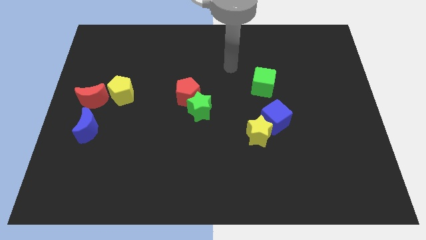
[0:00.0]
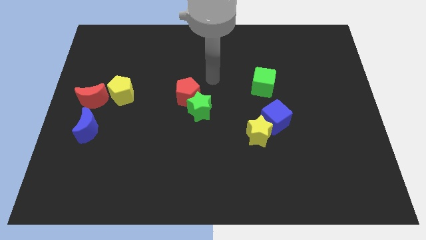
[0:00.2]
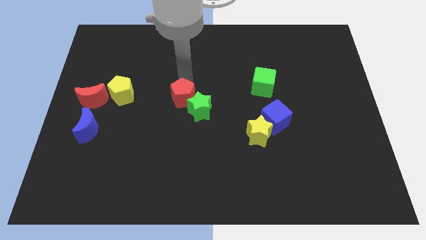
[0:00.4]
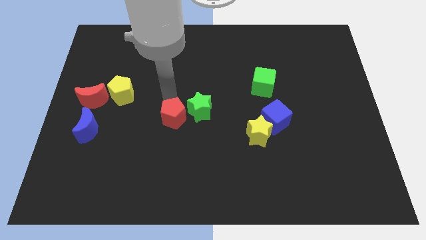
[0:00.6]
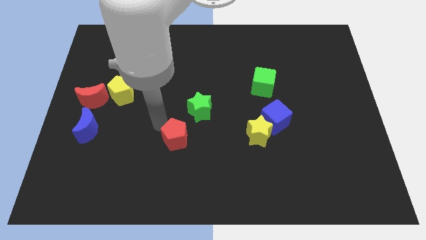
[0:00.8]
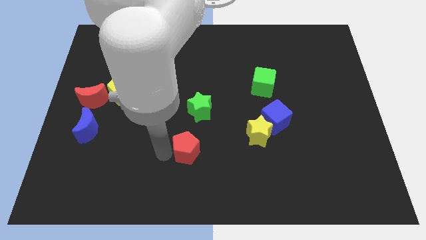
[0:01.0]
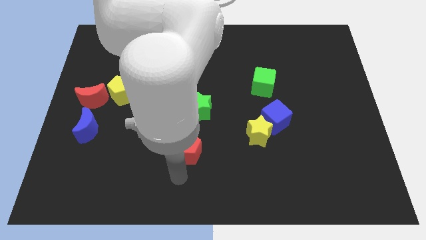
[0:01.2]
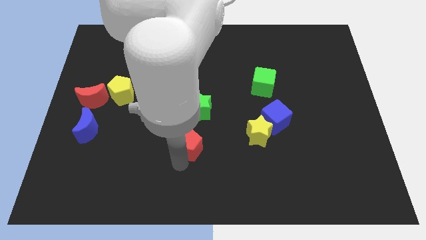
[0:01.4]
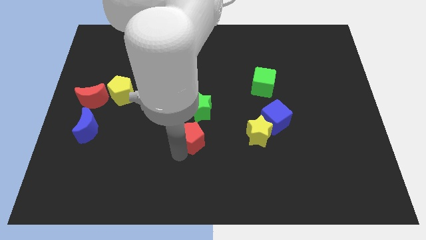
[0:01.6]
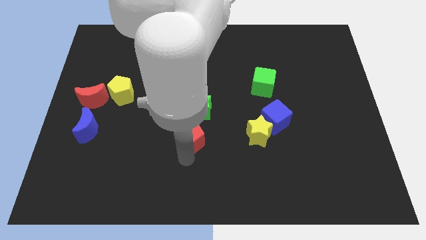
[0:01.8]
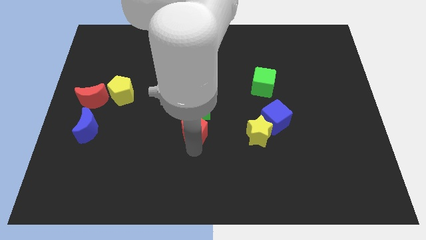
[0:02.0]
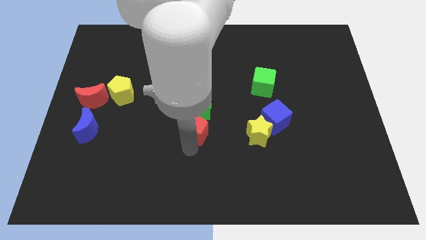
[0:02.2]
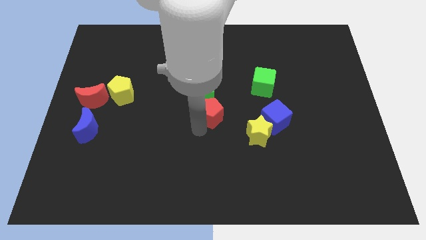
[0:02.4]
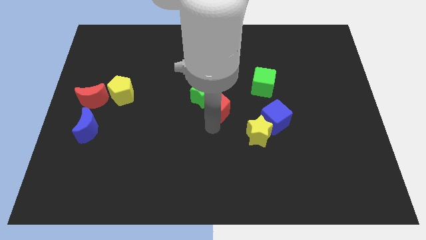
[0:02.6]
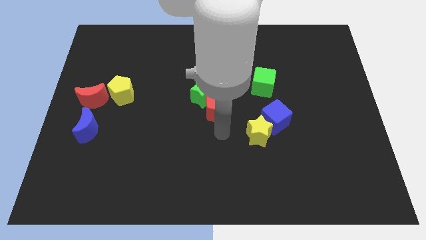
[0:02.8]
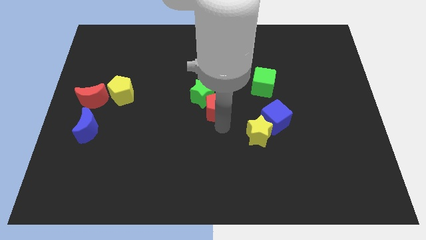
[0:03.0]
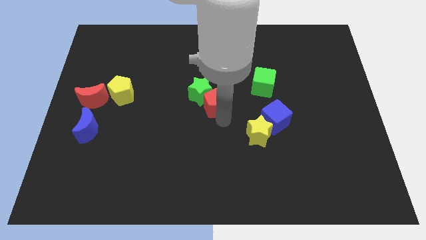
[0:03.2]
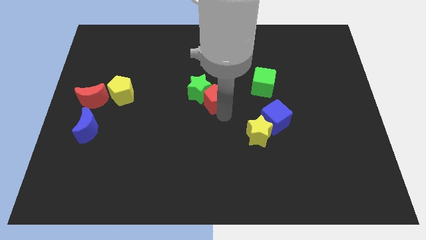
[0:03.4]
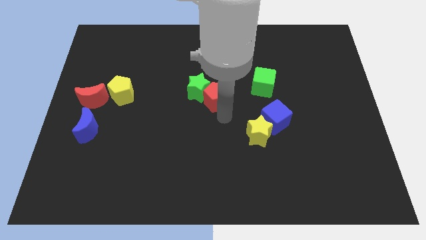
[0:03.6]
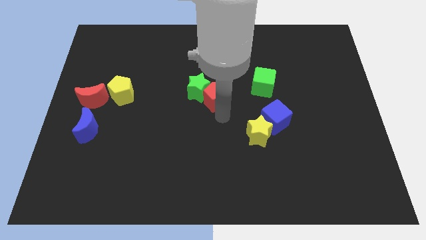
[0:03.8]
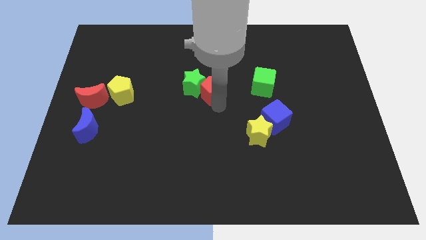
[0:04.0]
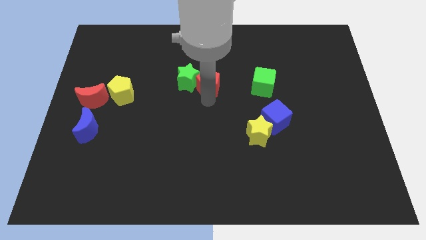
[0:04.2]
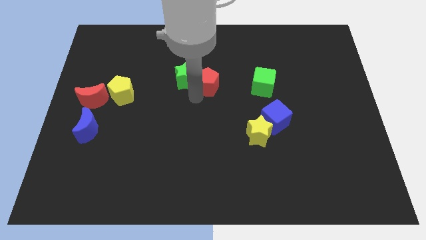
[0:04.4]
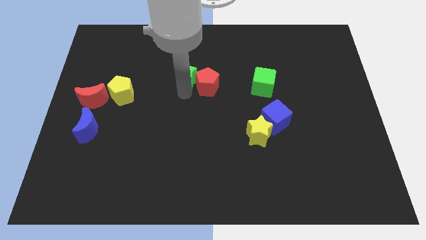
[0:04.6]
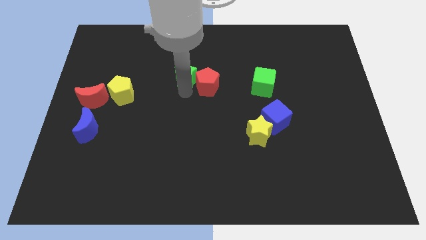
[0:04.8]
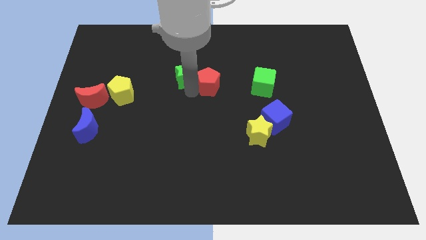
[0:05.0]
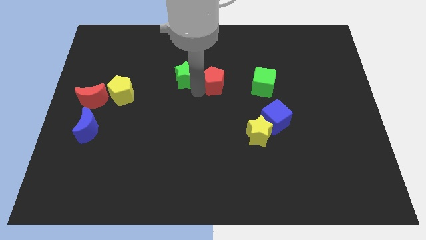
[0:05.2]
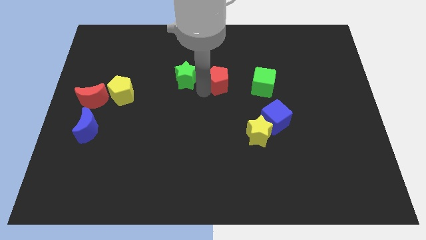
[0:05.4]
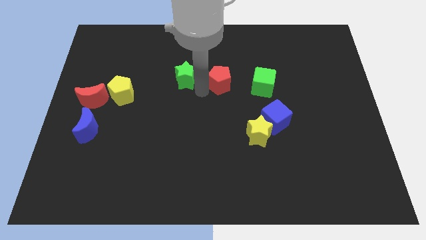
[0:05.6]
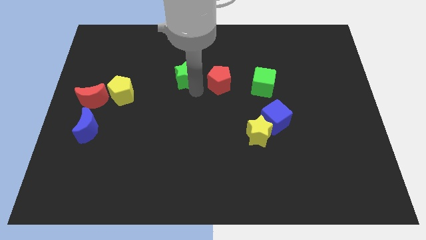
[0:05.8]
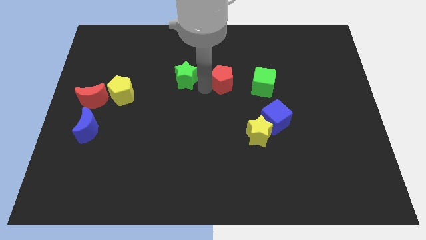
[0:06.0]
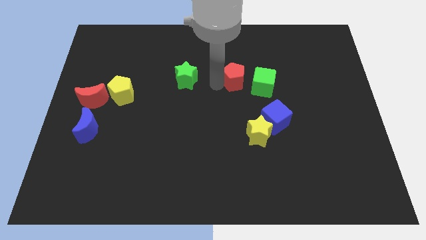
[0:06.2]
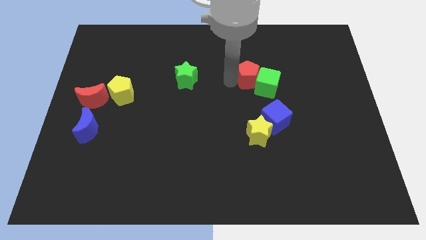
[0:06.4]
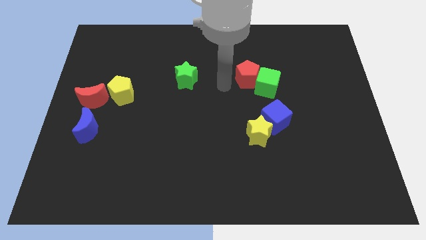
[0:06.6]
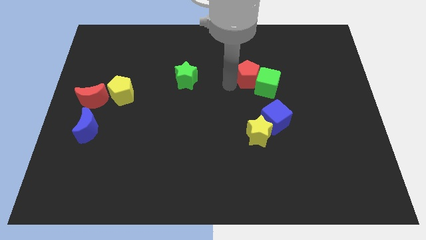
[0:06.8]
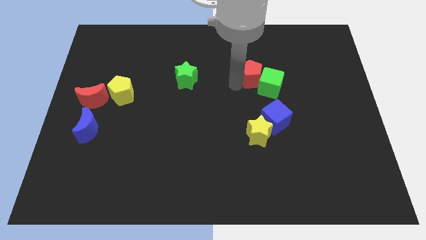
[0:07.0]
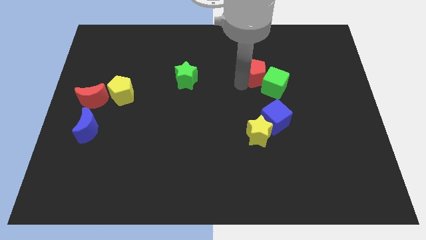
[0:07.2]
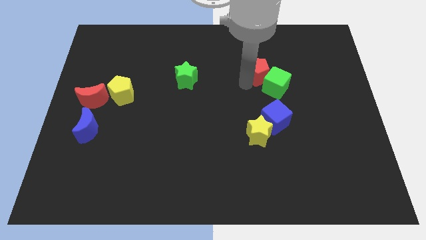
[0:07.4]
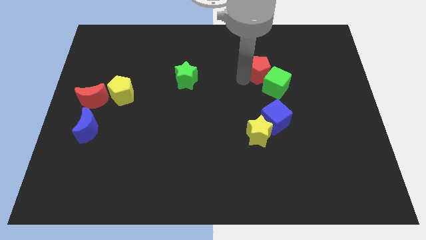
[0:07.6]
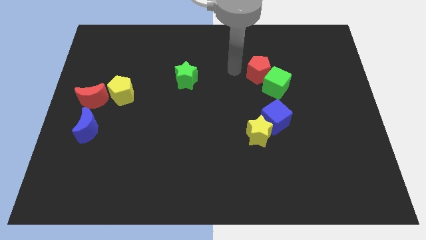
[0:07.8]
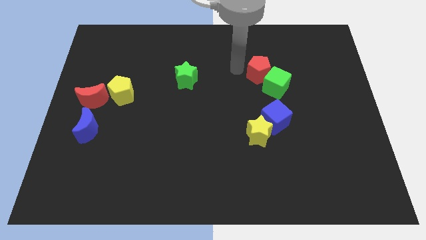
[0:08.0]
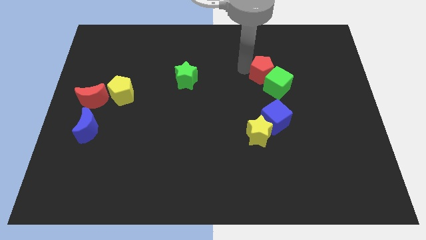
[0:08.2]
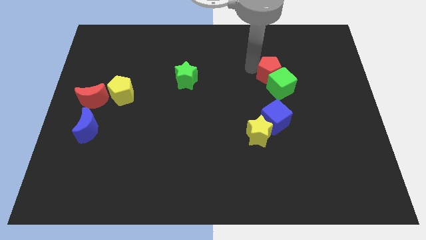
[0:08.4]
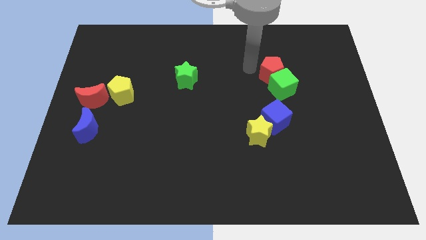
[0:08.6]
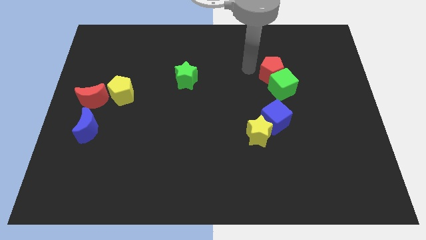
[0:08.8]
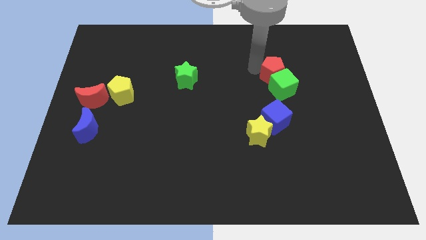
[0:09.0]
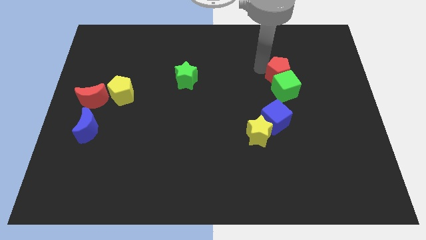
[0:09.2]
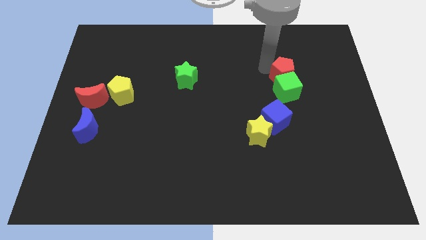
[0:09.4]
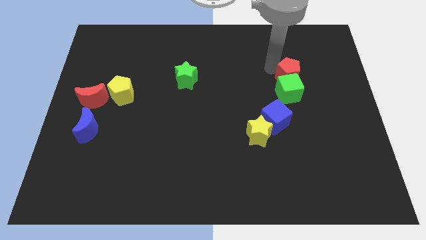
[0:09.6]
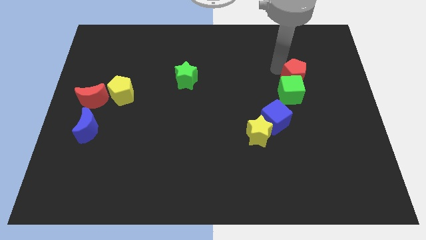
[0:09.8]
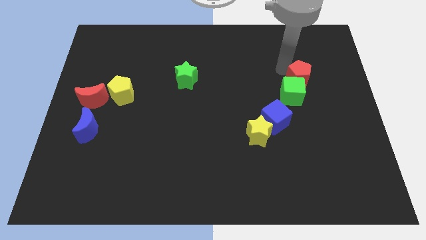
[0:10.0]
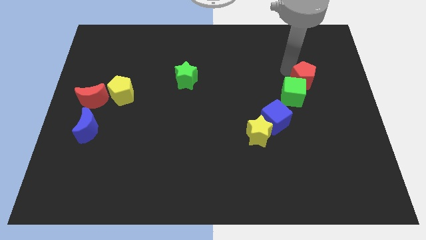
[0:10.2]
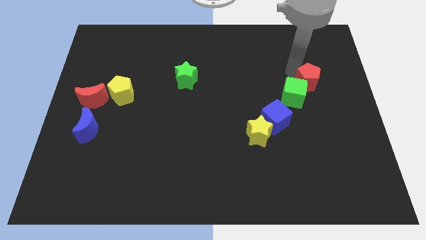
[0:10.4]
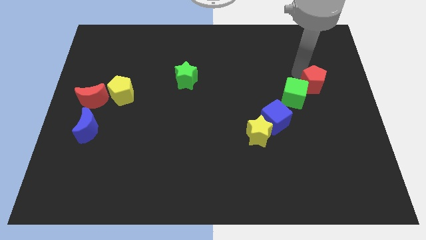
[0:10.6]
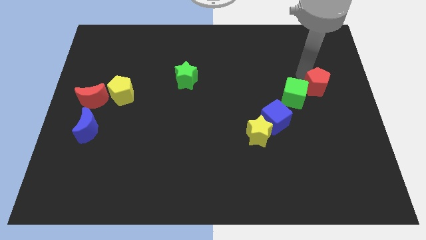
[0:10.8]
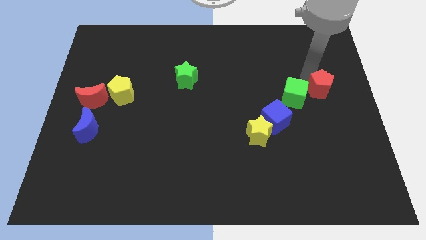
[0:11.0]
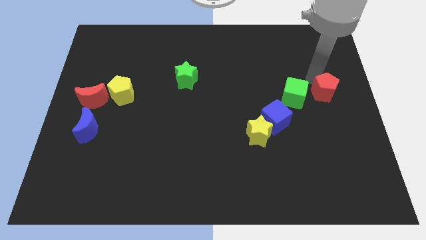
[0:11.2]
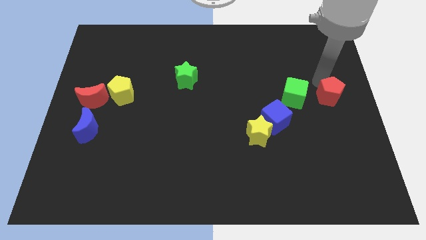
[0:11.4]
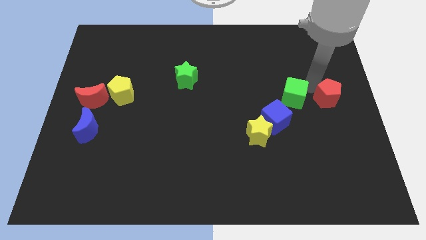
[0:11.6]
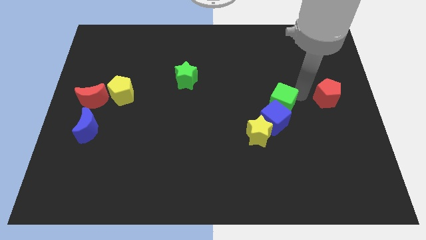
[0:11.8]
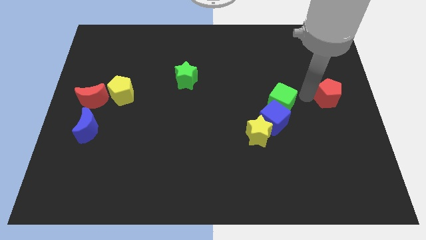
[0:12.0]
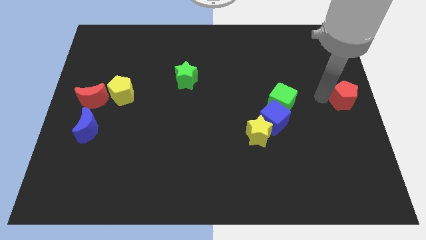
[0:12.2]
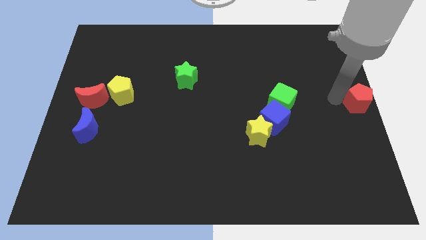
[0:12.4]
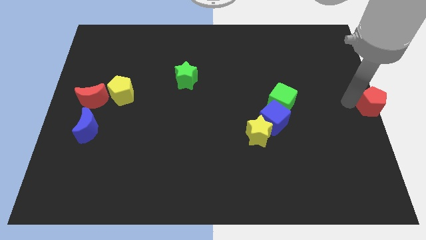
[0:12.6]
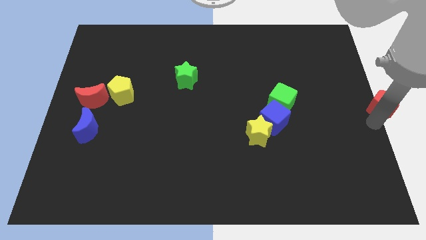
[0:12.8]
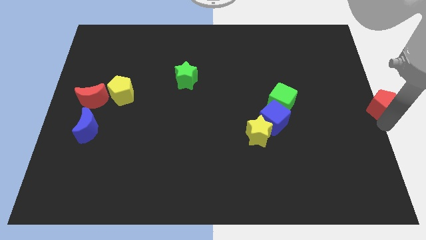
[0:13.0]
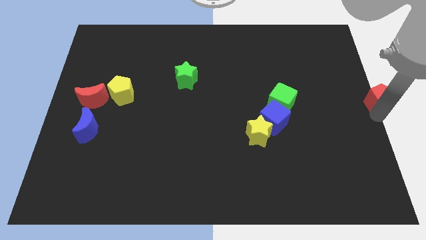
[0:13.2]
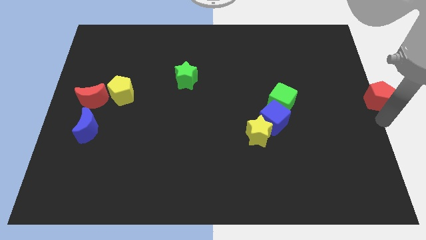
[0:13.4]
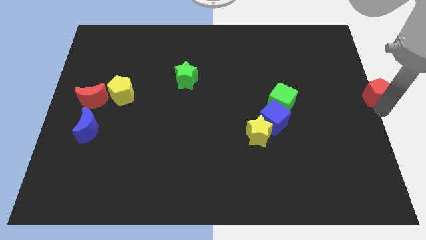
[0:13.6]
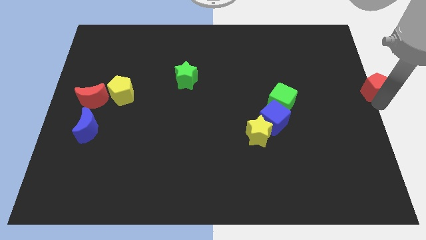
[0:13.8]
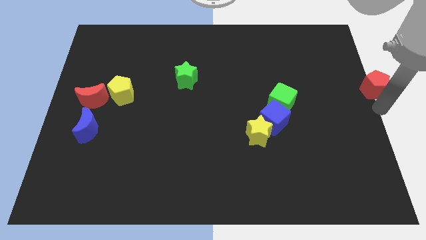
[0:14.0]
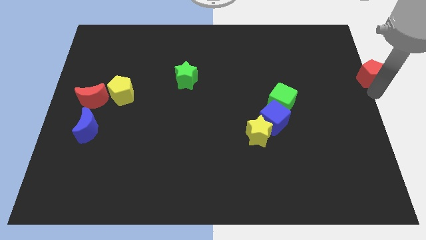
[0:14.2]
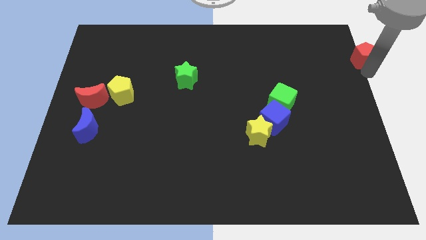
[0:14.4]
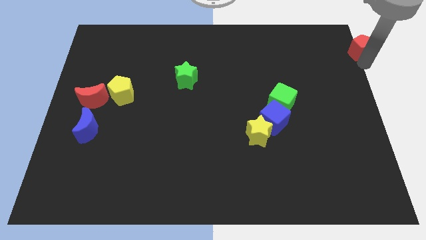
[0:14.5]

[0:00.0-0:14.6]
put the red pentagon to the upper right corner
